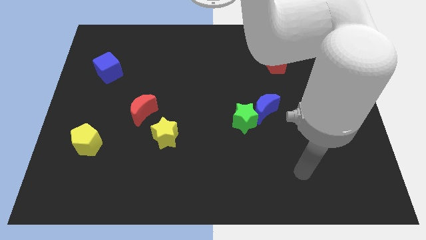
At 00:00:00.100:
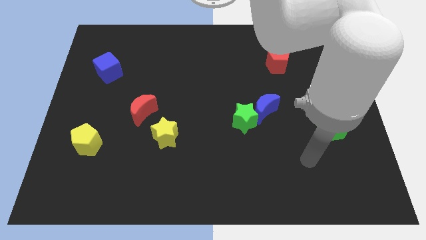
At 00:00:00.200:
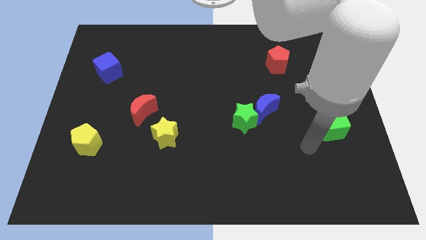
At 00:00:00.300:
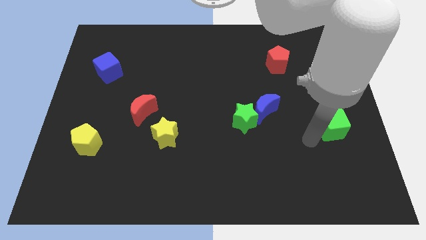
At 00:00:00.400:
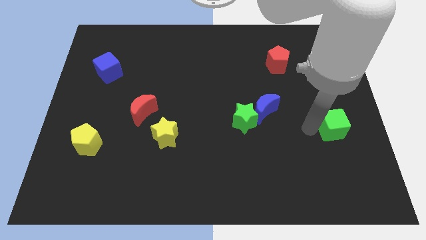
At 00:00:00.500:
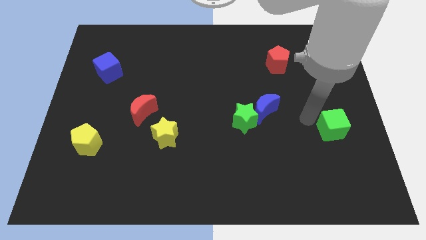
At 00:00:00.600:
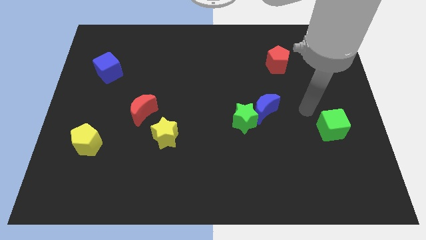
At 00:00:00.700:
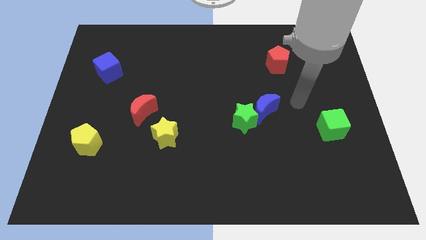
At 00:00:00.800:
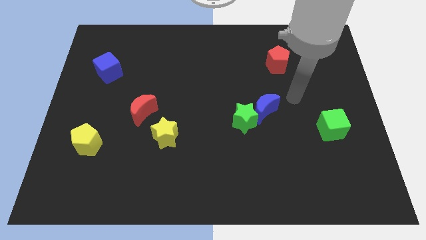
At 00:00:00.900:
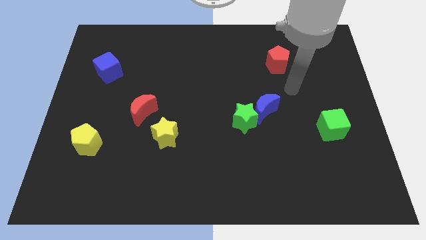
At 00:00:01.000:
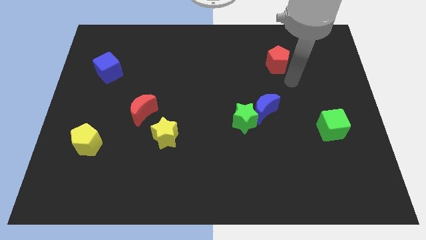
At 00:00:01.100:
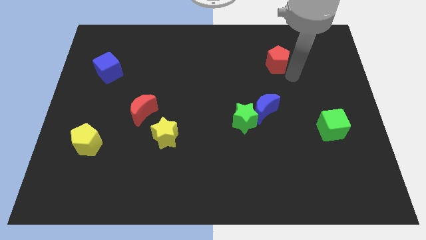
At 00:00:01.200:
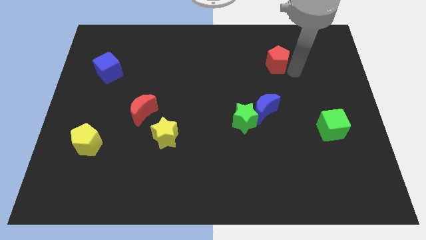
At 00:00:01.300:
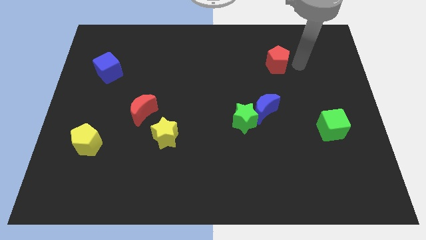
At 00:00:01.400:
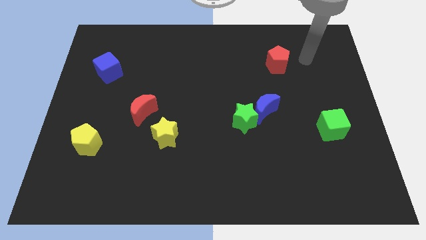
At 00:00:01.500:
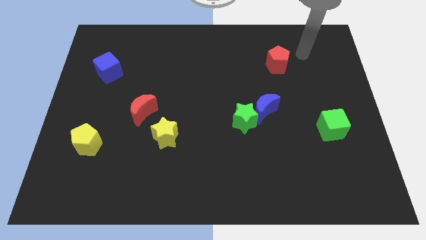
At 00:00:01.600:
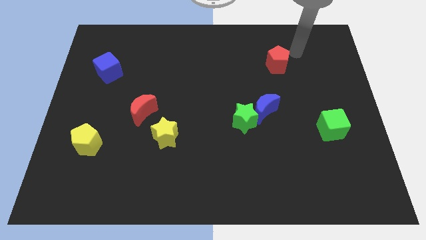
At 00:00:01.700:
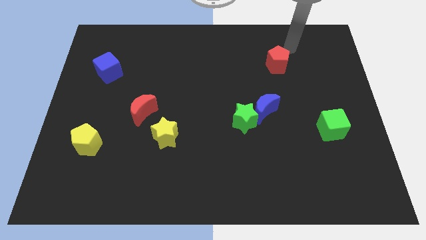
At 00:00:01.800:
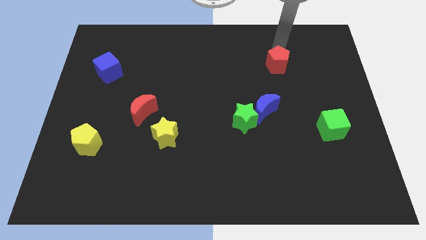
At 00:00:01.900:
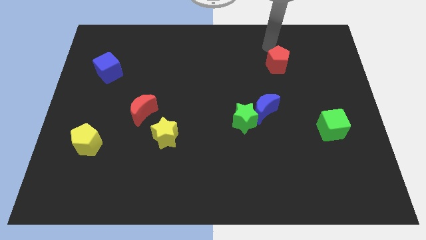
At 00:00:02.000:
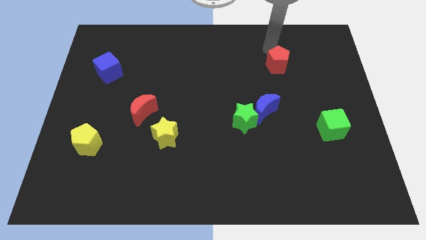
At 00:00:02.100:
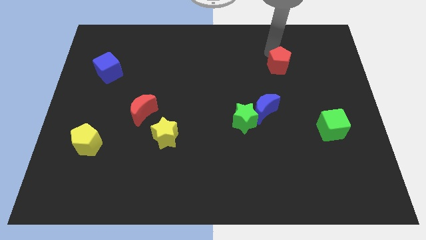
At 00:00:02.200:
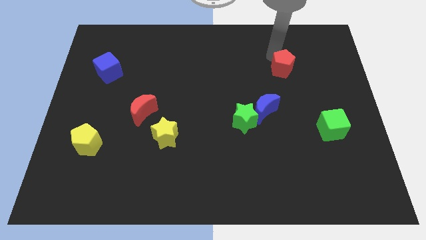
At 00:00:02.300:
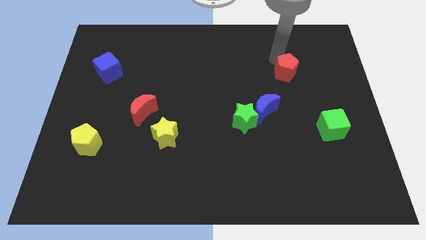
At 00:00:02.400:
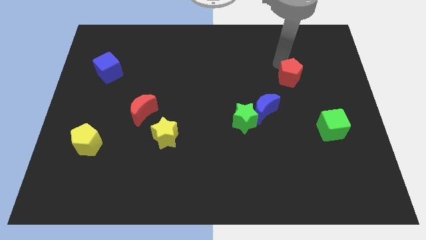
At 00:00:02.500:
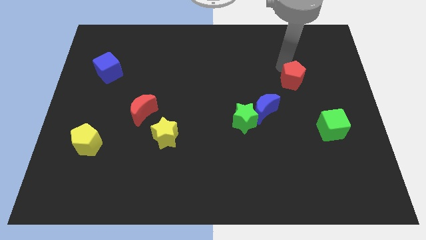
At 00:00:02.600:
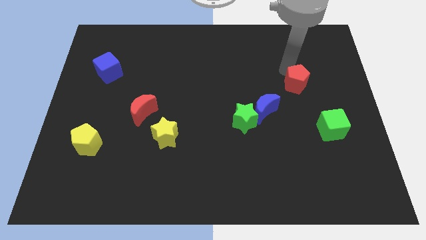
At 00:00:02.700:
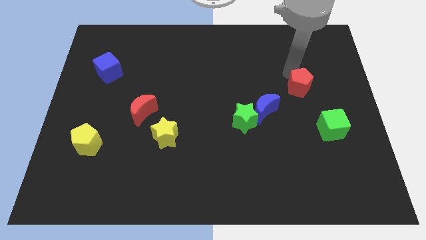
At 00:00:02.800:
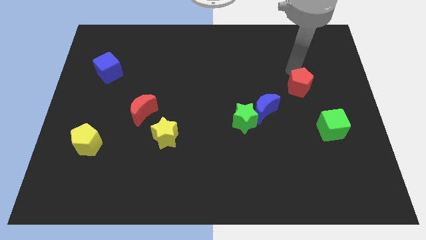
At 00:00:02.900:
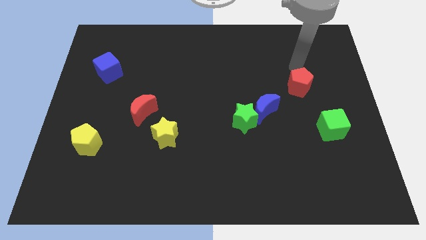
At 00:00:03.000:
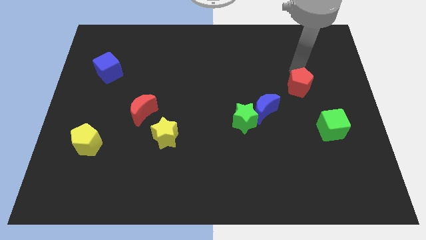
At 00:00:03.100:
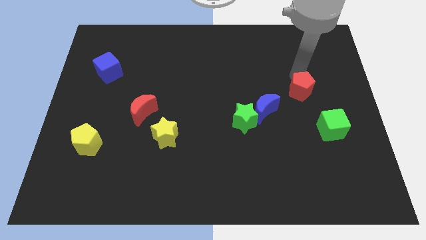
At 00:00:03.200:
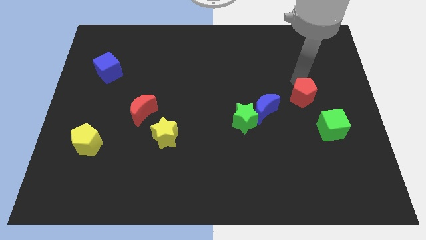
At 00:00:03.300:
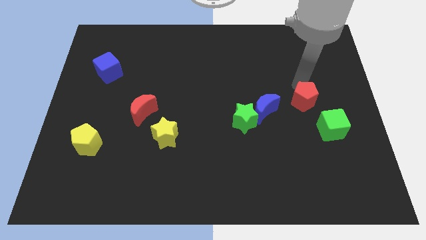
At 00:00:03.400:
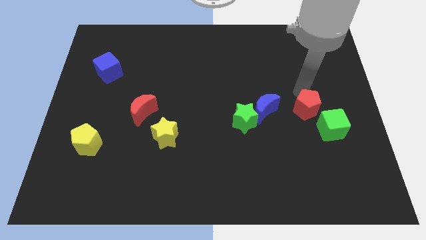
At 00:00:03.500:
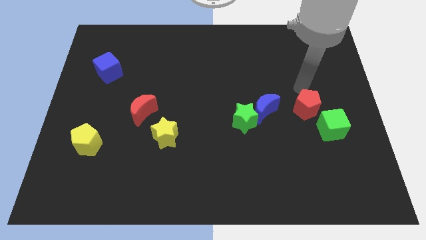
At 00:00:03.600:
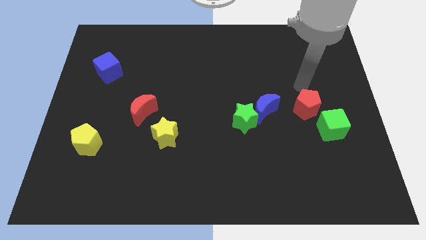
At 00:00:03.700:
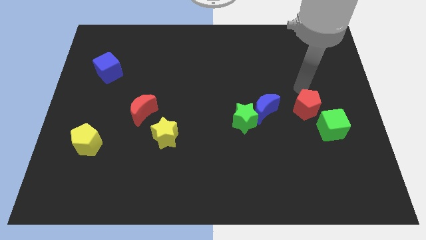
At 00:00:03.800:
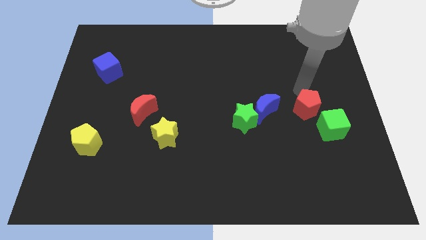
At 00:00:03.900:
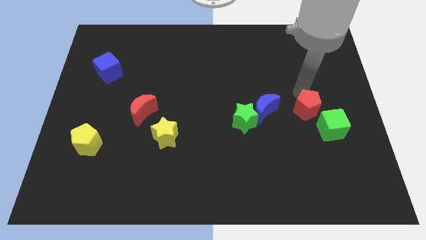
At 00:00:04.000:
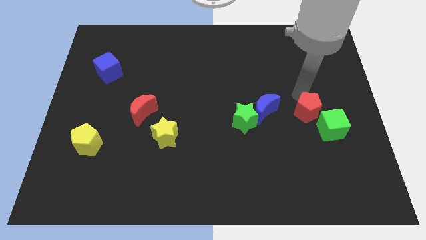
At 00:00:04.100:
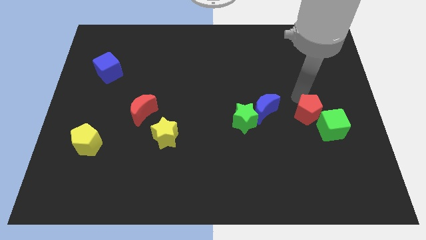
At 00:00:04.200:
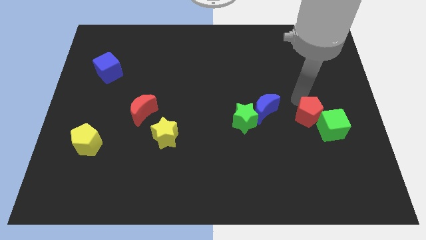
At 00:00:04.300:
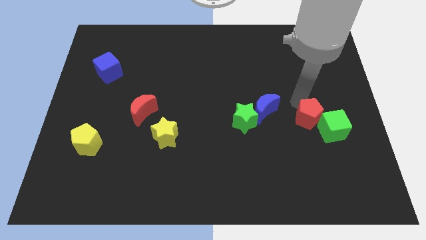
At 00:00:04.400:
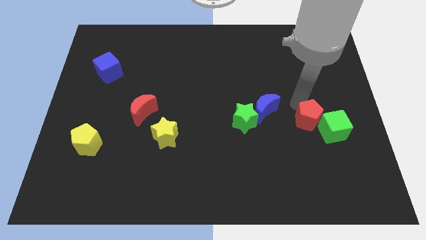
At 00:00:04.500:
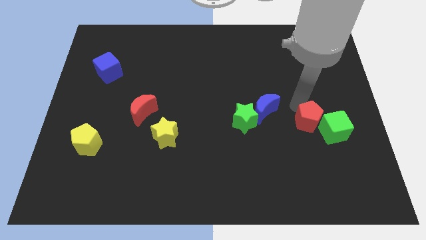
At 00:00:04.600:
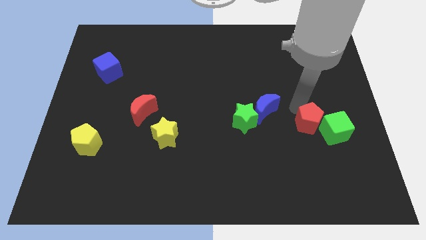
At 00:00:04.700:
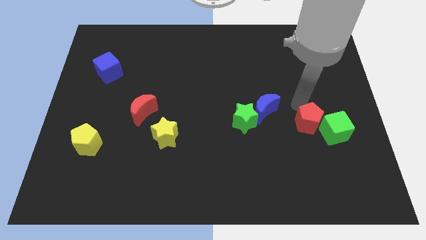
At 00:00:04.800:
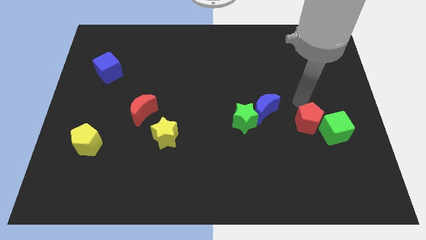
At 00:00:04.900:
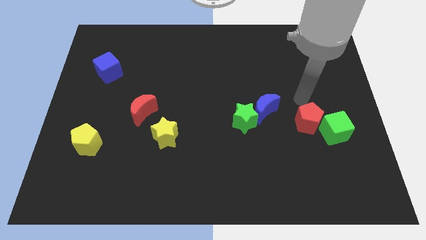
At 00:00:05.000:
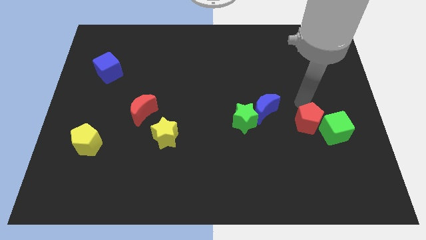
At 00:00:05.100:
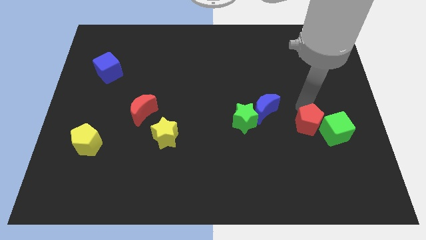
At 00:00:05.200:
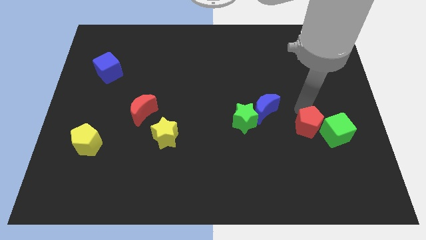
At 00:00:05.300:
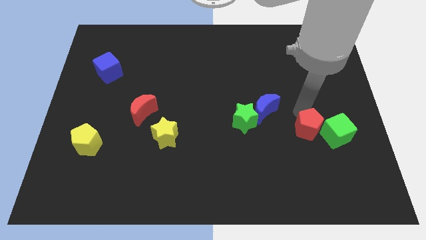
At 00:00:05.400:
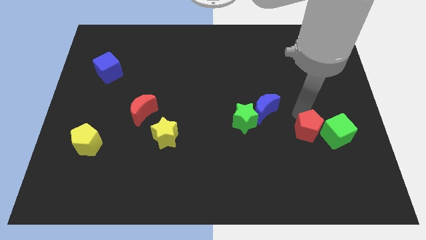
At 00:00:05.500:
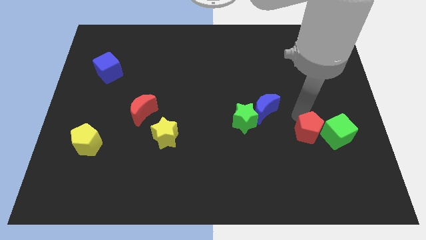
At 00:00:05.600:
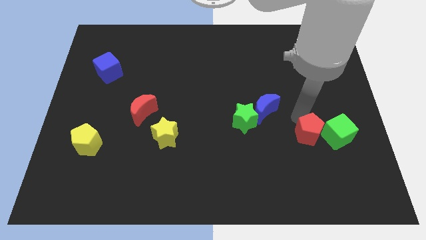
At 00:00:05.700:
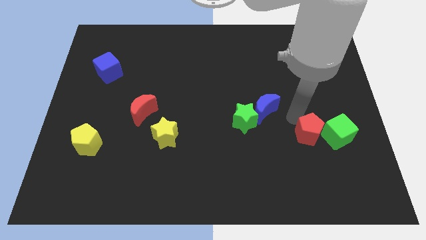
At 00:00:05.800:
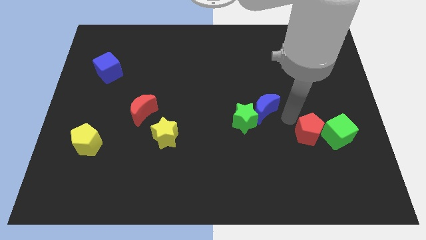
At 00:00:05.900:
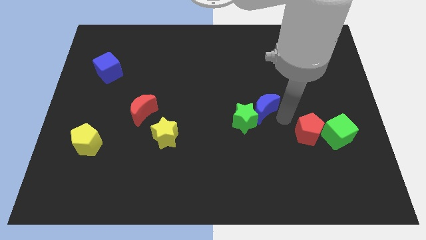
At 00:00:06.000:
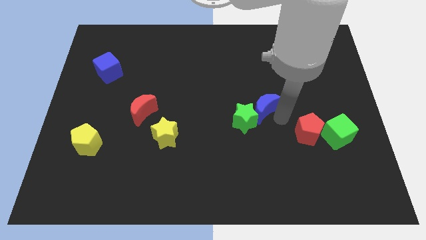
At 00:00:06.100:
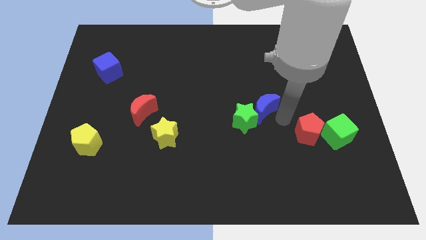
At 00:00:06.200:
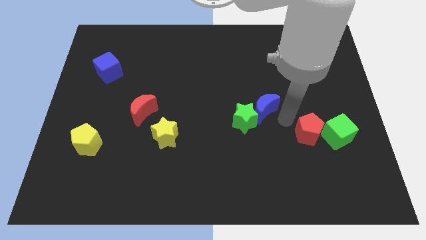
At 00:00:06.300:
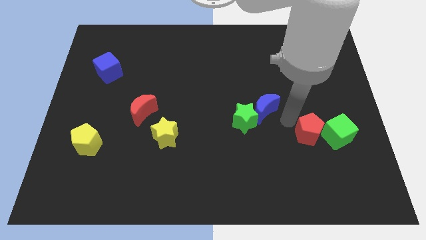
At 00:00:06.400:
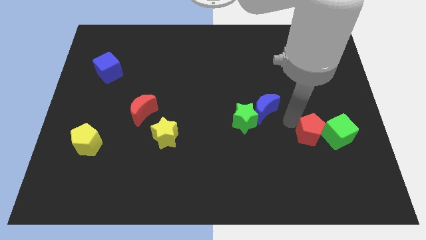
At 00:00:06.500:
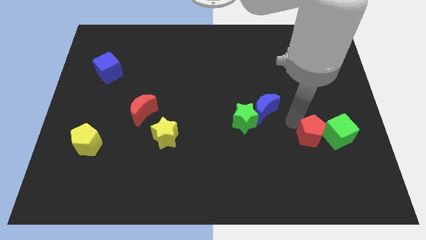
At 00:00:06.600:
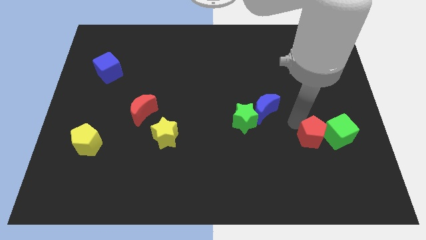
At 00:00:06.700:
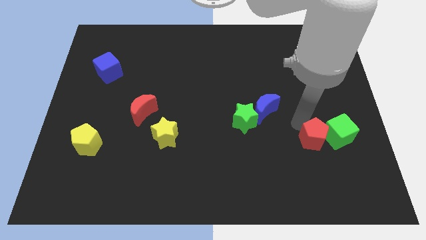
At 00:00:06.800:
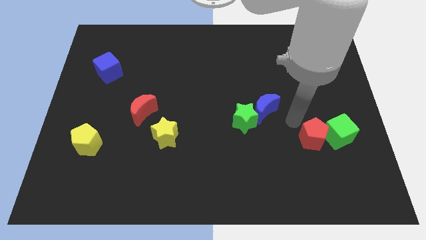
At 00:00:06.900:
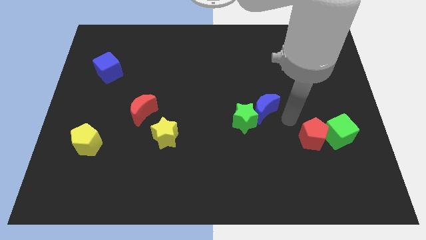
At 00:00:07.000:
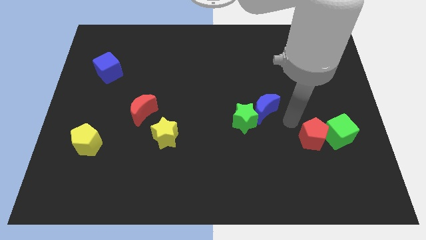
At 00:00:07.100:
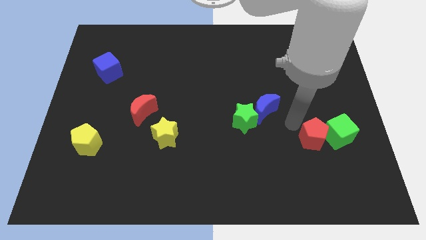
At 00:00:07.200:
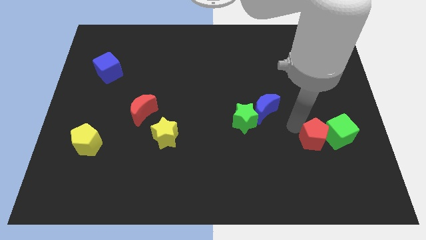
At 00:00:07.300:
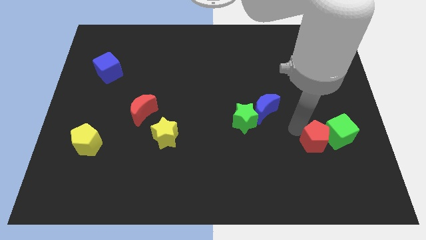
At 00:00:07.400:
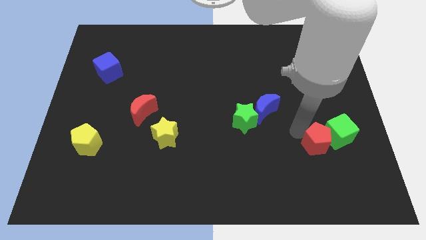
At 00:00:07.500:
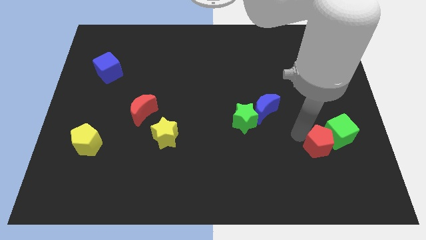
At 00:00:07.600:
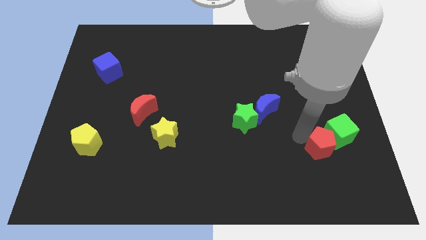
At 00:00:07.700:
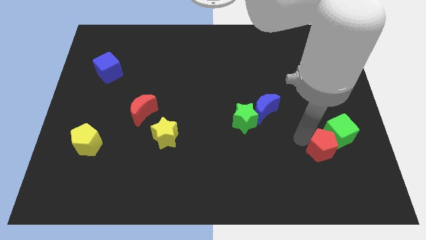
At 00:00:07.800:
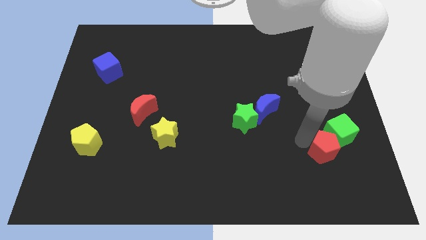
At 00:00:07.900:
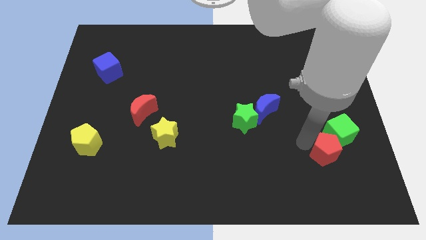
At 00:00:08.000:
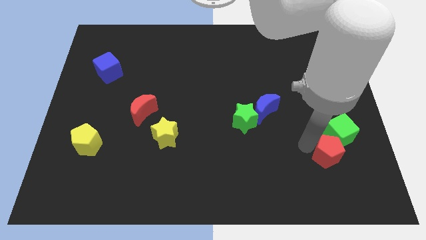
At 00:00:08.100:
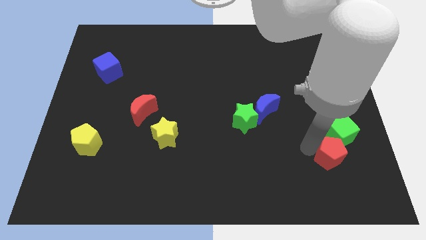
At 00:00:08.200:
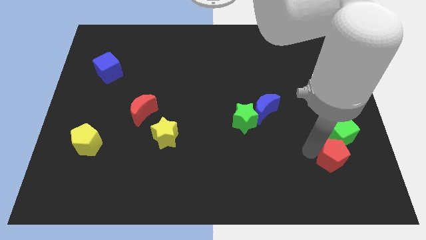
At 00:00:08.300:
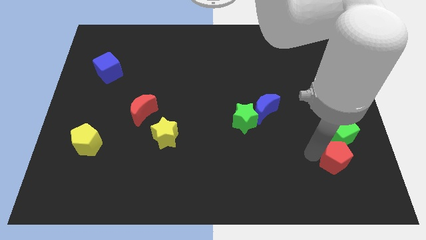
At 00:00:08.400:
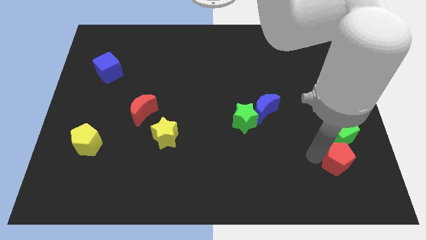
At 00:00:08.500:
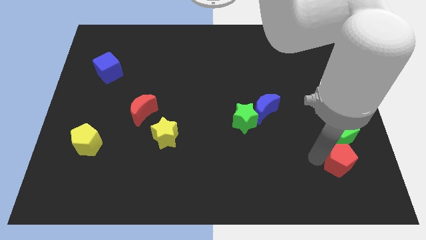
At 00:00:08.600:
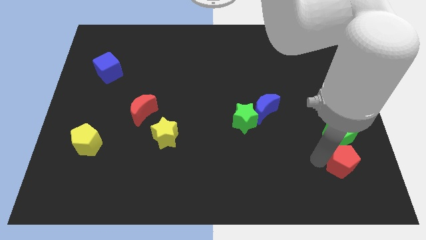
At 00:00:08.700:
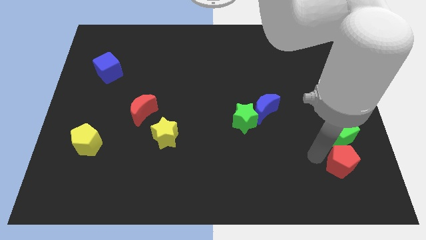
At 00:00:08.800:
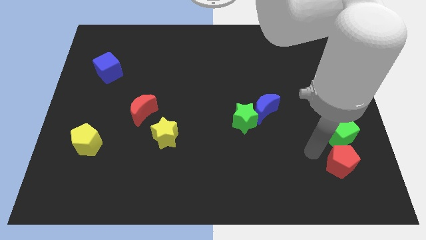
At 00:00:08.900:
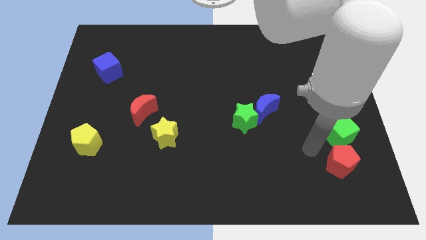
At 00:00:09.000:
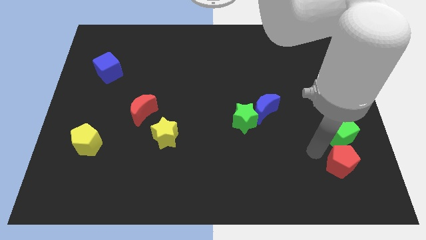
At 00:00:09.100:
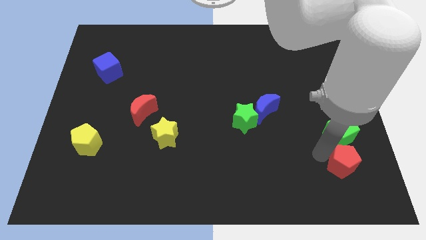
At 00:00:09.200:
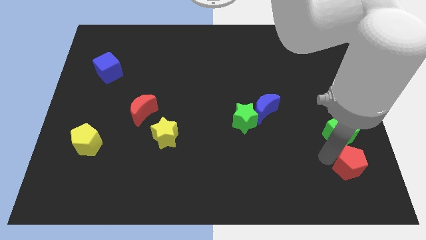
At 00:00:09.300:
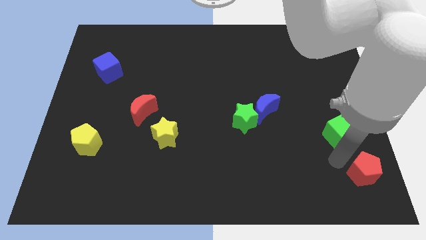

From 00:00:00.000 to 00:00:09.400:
put the red pentagon to the bottom right corner
